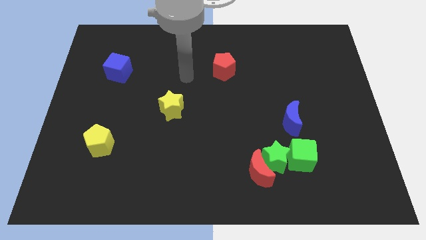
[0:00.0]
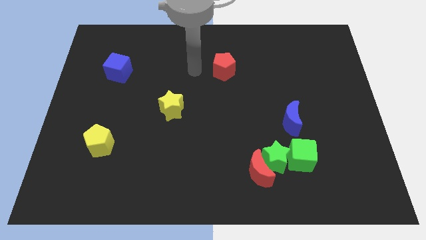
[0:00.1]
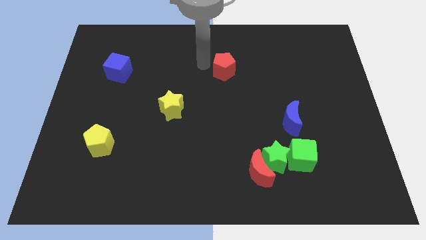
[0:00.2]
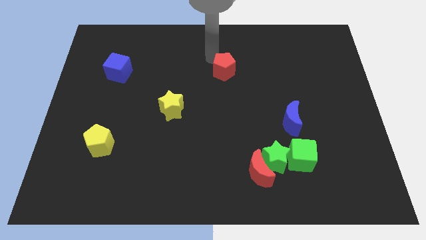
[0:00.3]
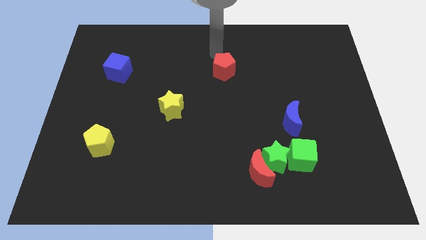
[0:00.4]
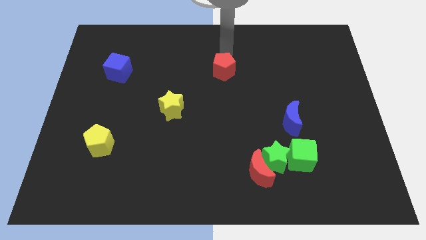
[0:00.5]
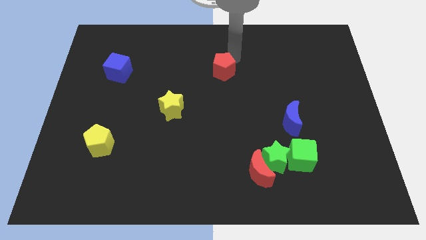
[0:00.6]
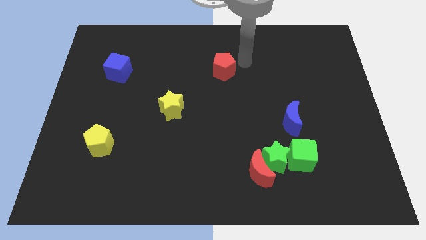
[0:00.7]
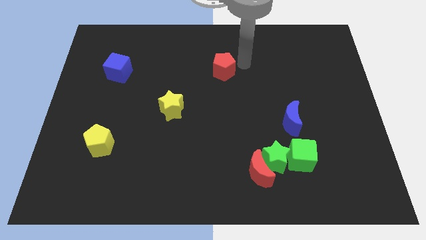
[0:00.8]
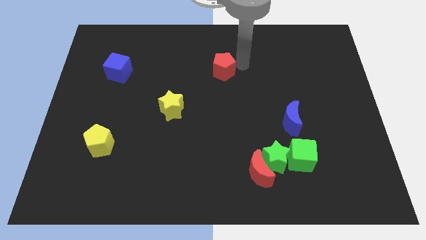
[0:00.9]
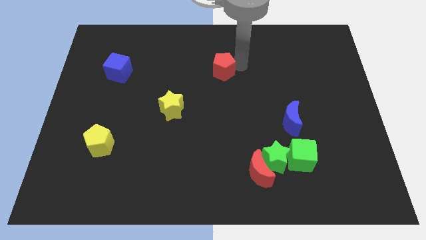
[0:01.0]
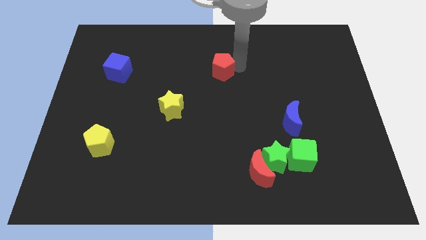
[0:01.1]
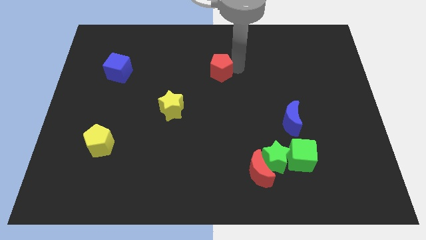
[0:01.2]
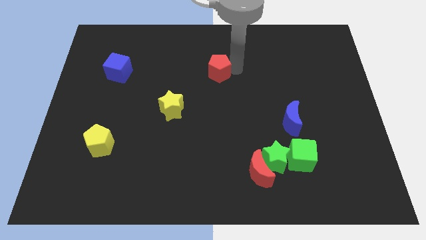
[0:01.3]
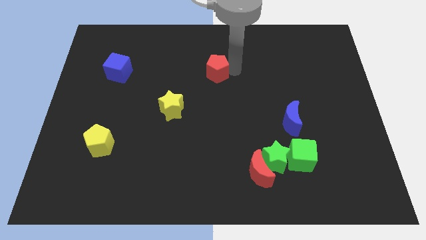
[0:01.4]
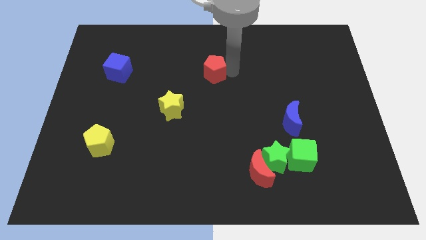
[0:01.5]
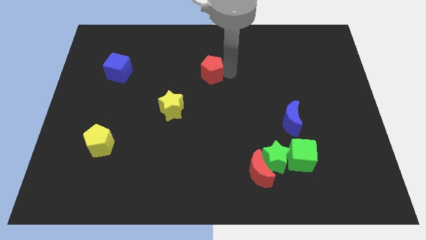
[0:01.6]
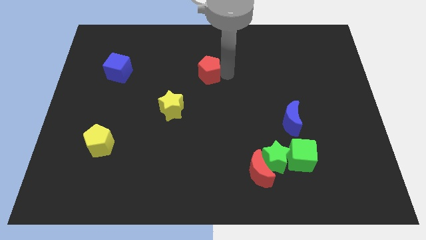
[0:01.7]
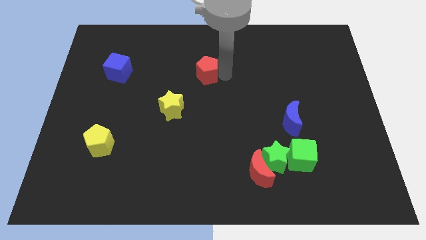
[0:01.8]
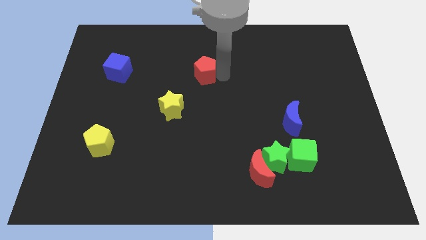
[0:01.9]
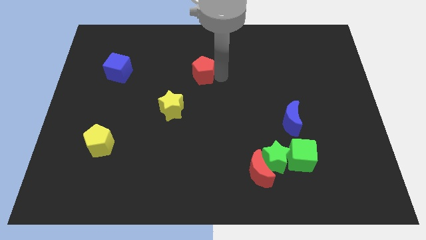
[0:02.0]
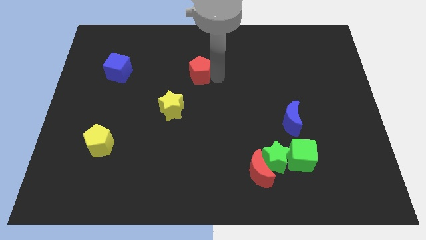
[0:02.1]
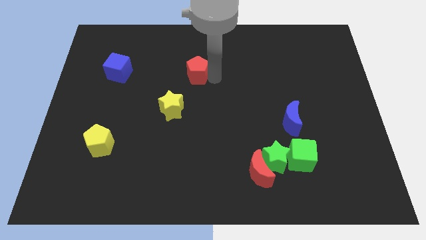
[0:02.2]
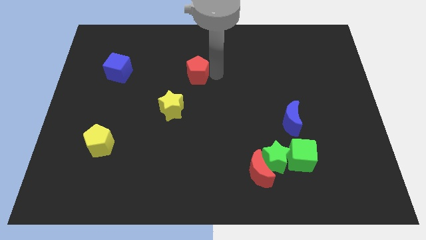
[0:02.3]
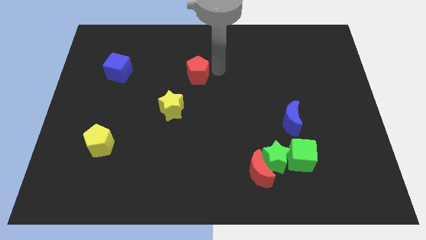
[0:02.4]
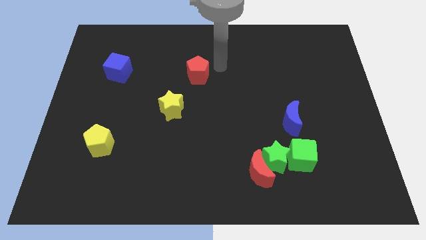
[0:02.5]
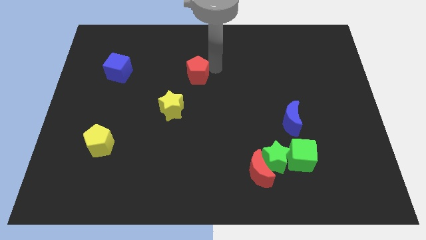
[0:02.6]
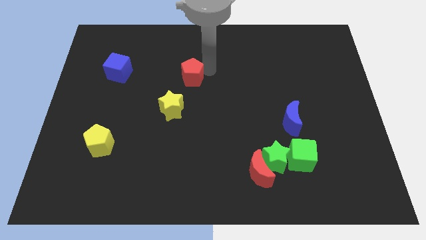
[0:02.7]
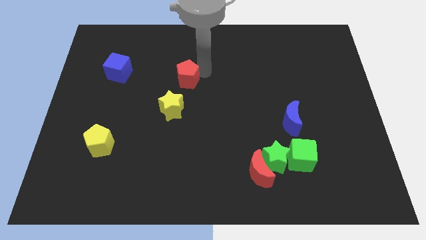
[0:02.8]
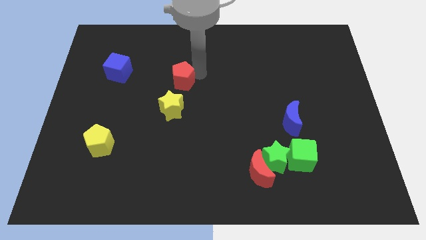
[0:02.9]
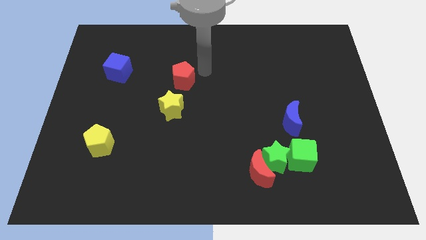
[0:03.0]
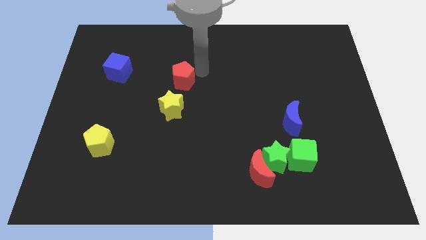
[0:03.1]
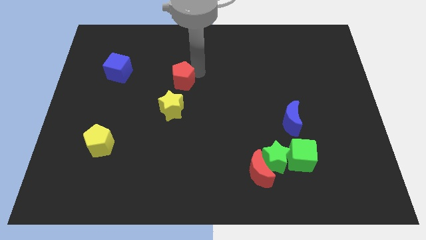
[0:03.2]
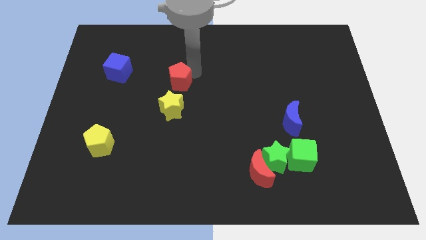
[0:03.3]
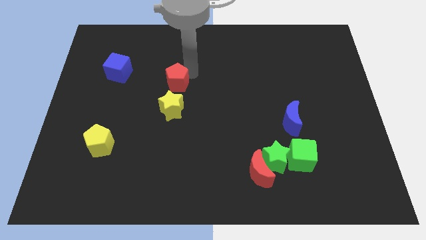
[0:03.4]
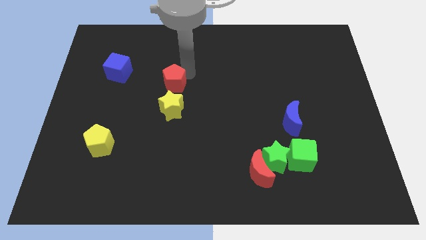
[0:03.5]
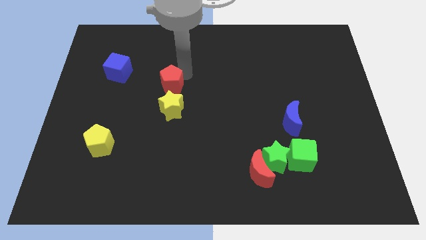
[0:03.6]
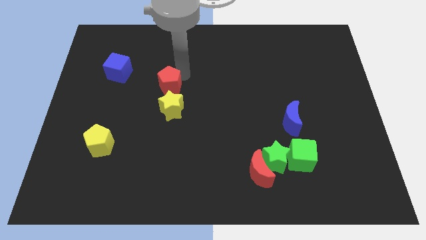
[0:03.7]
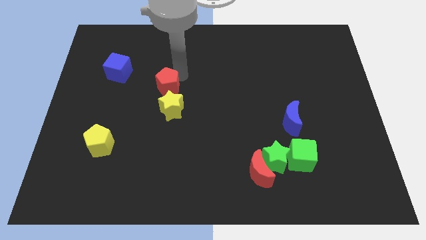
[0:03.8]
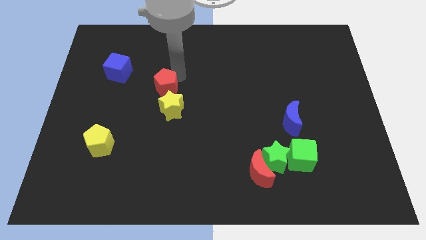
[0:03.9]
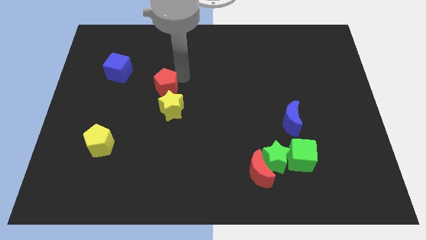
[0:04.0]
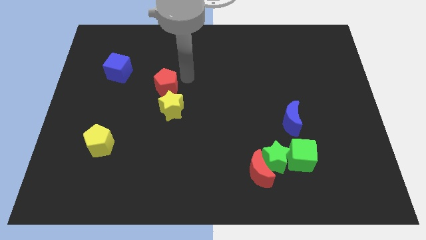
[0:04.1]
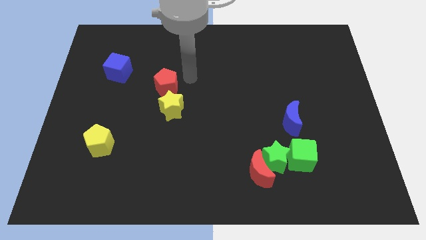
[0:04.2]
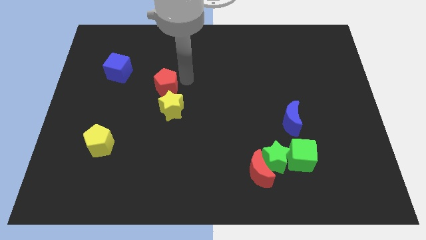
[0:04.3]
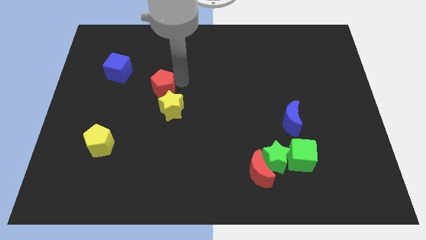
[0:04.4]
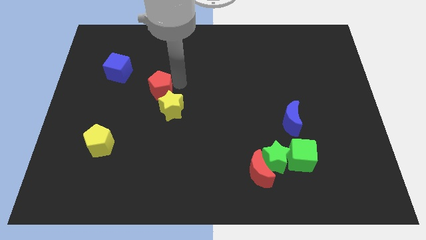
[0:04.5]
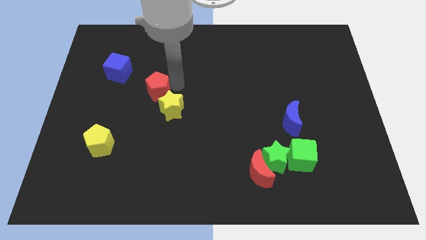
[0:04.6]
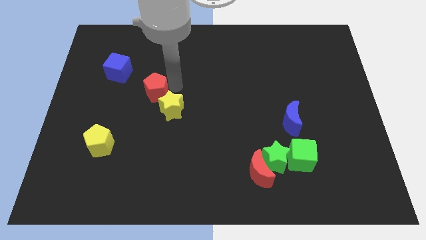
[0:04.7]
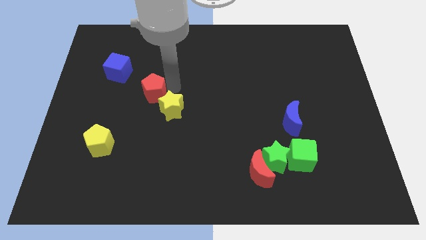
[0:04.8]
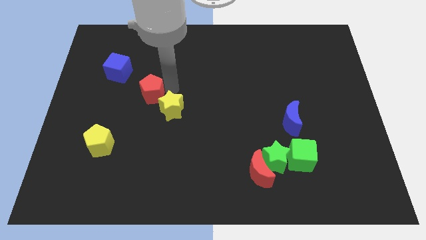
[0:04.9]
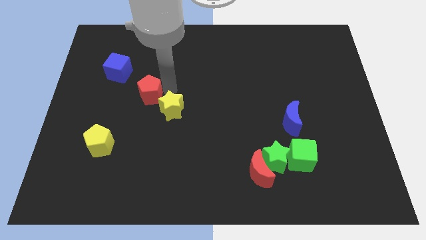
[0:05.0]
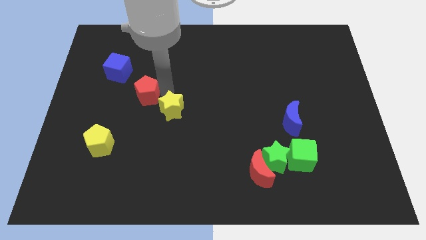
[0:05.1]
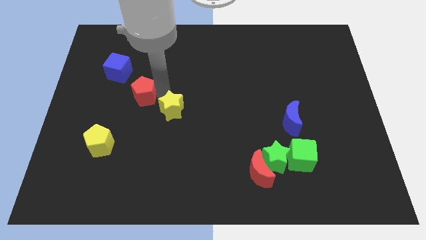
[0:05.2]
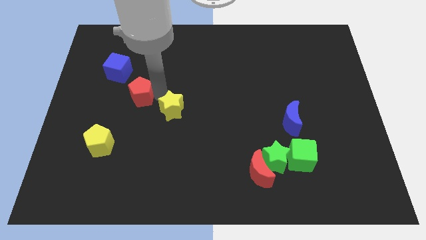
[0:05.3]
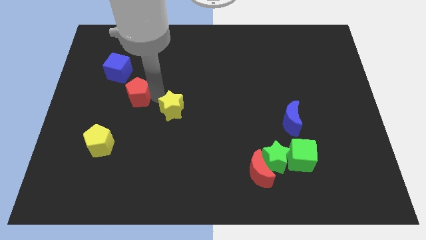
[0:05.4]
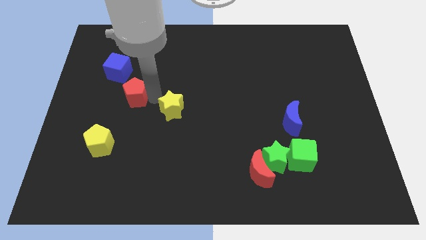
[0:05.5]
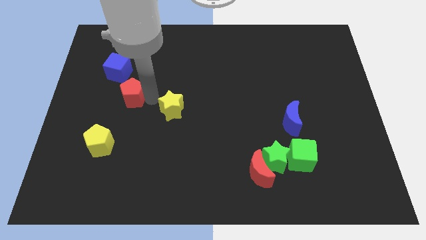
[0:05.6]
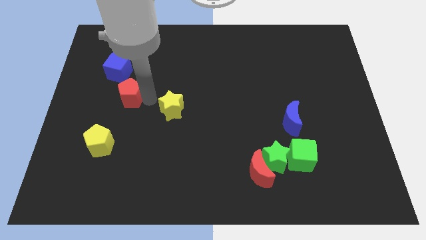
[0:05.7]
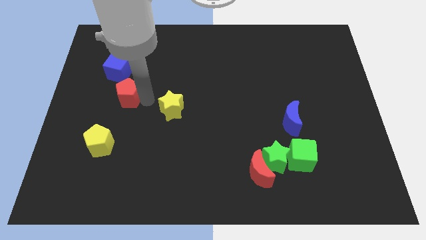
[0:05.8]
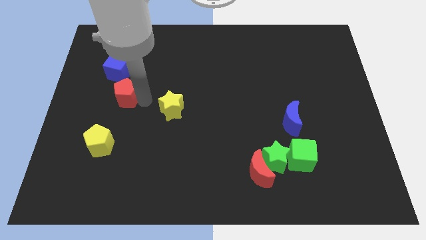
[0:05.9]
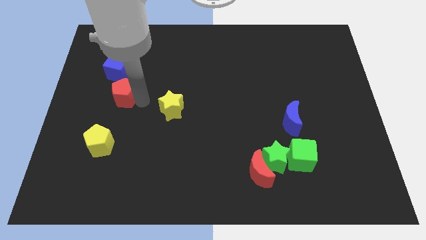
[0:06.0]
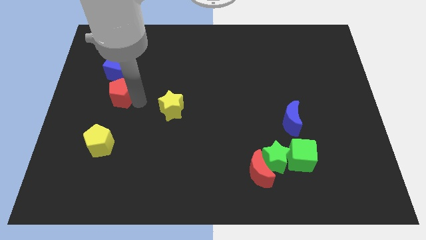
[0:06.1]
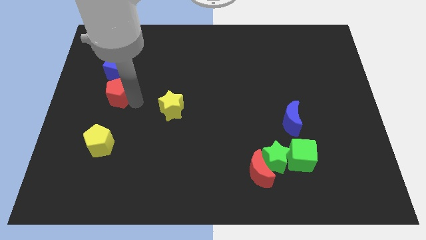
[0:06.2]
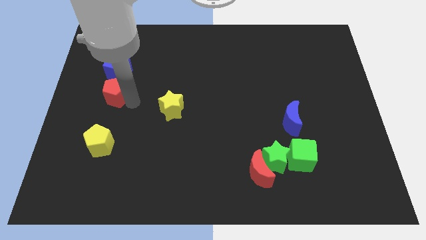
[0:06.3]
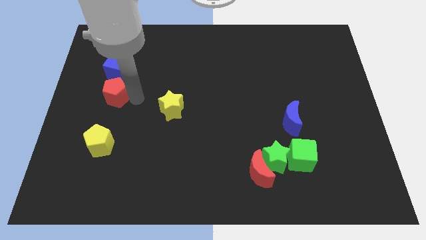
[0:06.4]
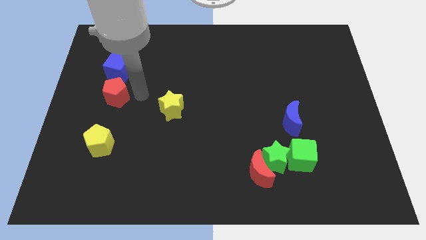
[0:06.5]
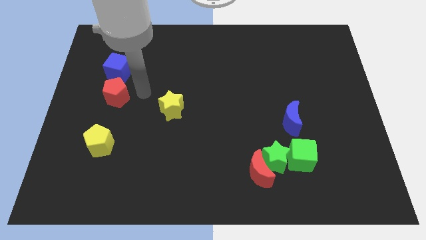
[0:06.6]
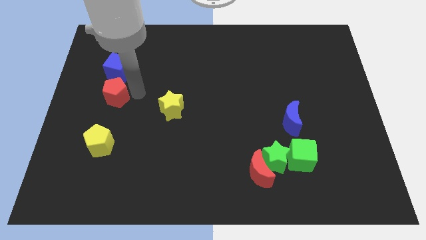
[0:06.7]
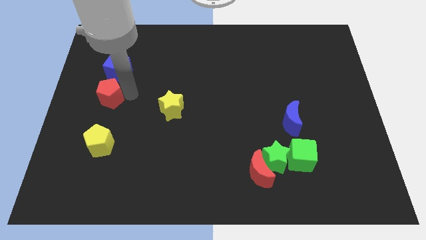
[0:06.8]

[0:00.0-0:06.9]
slide the red pentagon to the center left

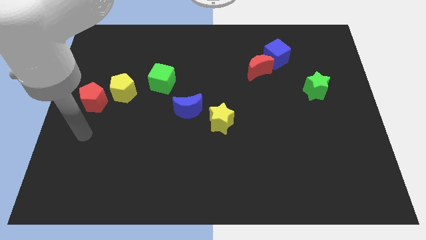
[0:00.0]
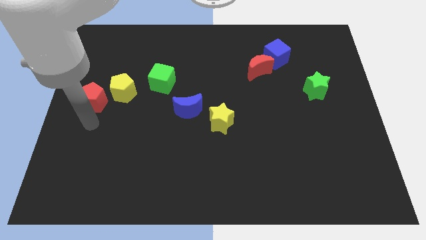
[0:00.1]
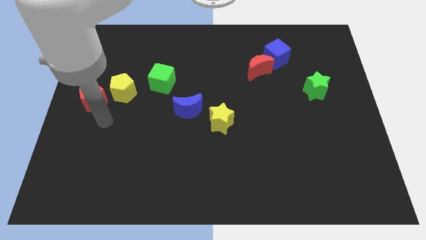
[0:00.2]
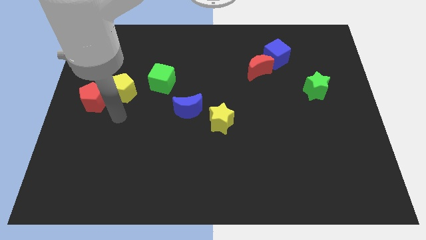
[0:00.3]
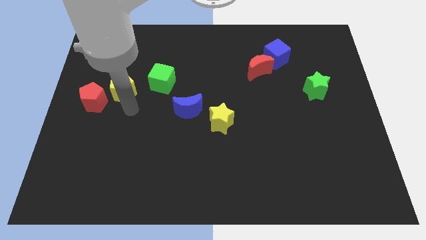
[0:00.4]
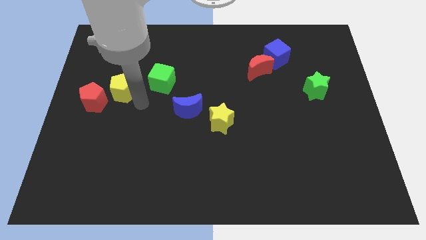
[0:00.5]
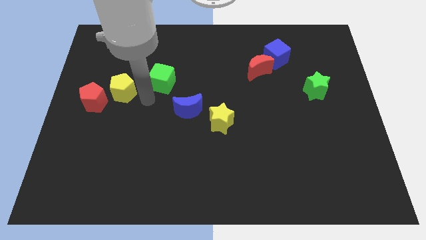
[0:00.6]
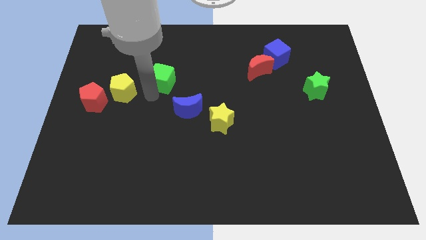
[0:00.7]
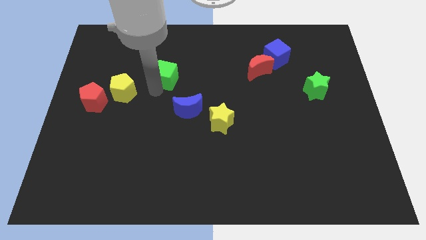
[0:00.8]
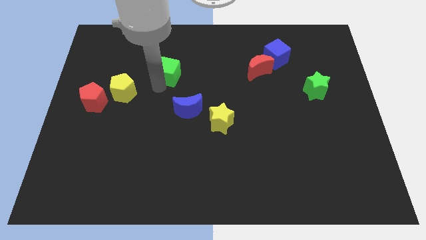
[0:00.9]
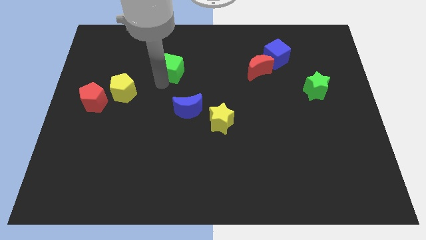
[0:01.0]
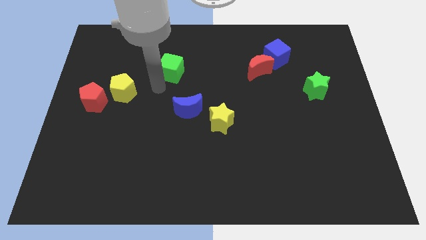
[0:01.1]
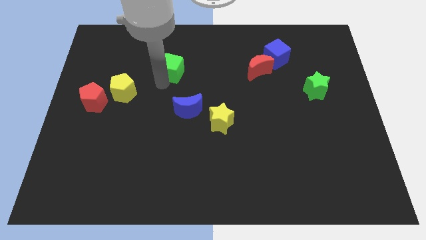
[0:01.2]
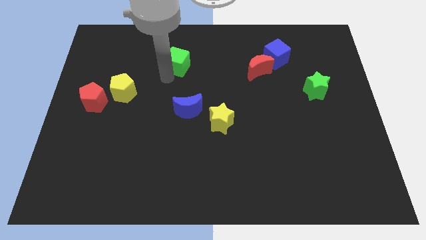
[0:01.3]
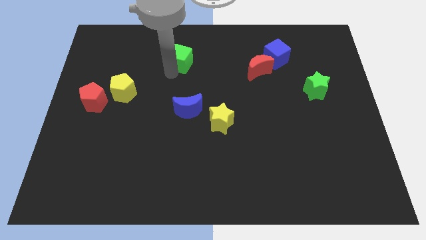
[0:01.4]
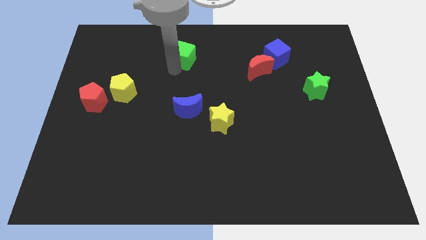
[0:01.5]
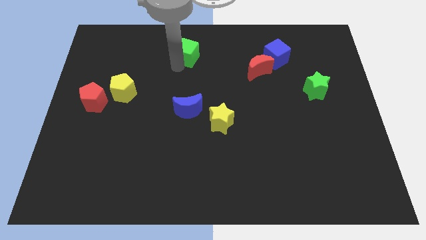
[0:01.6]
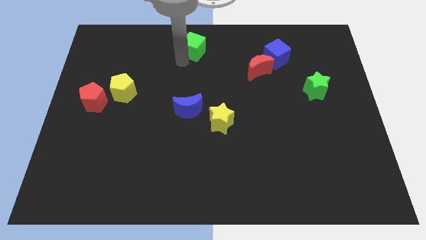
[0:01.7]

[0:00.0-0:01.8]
put the green cube to the towards your base
